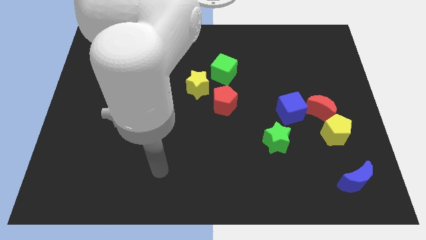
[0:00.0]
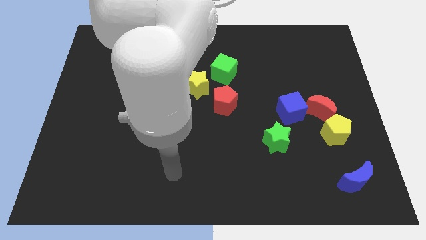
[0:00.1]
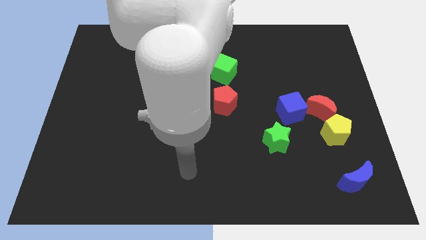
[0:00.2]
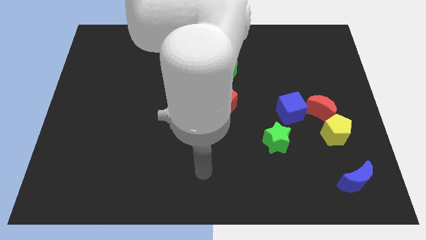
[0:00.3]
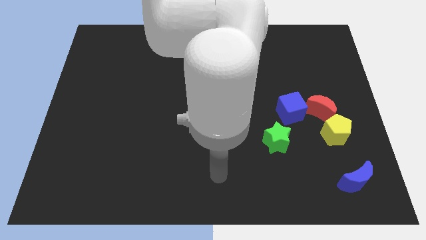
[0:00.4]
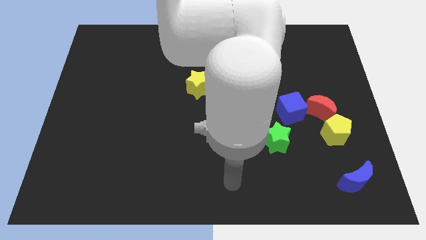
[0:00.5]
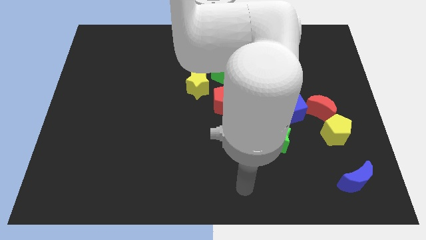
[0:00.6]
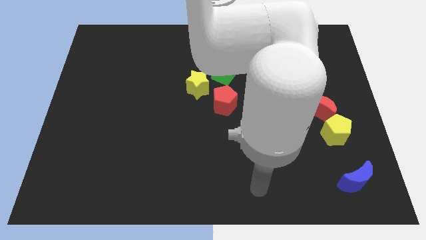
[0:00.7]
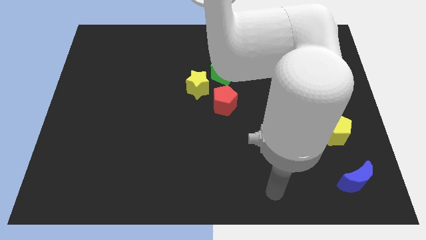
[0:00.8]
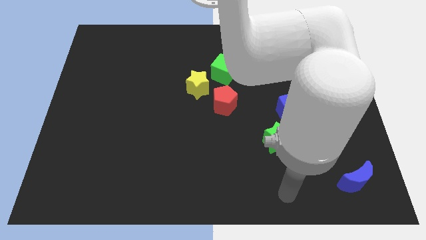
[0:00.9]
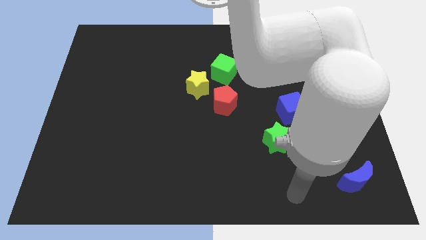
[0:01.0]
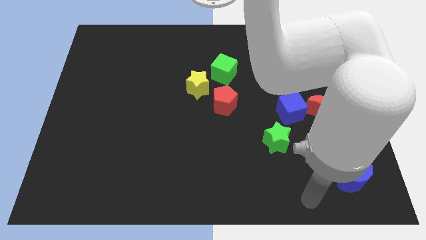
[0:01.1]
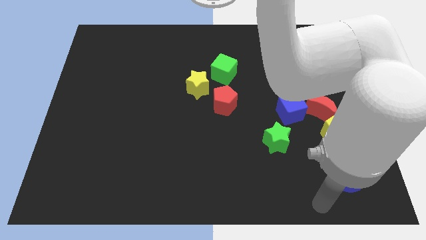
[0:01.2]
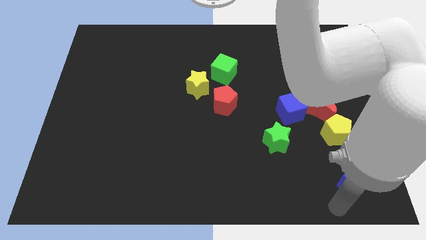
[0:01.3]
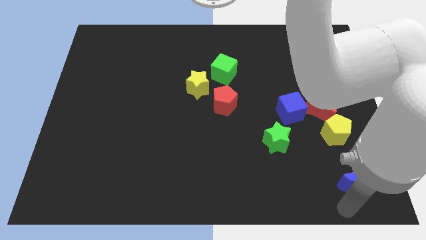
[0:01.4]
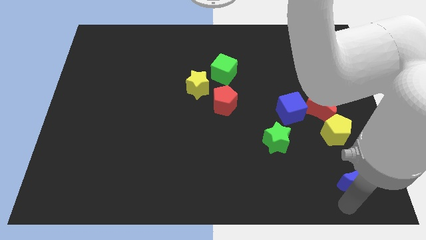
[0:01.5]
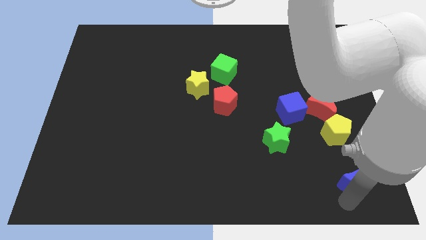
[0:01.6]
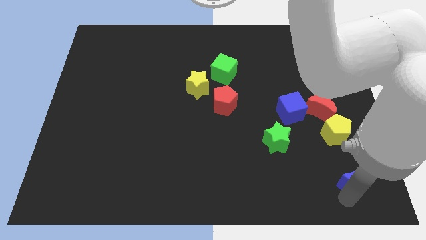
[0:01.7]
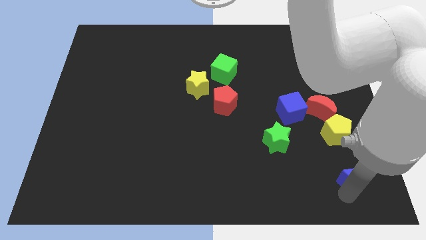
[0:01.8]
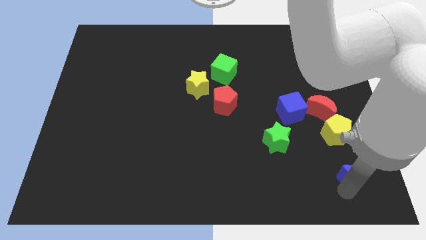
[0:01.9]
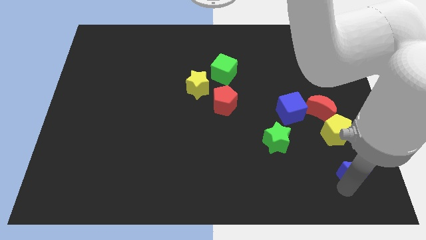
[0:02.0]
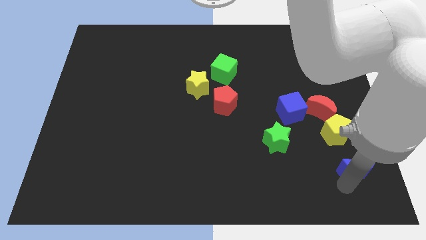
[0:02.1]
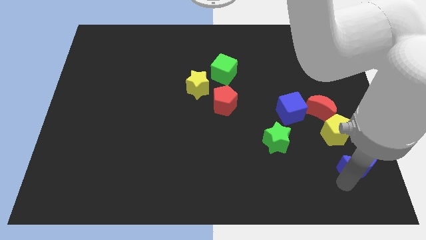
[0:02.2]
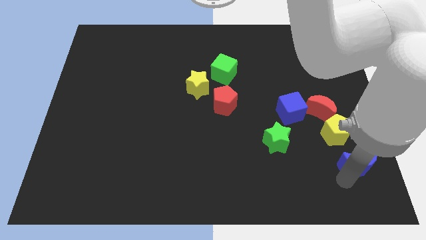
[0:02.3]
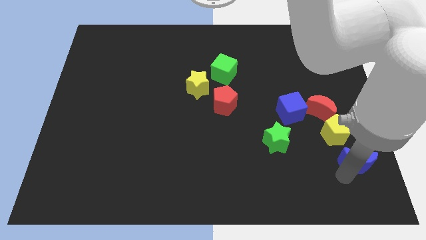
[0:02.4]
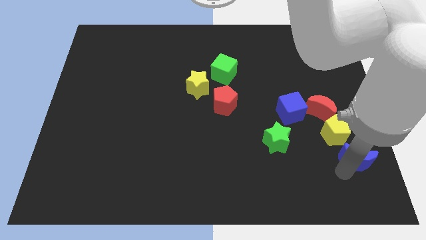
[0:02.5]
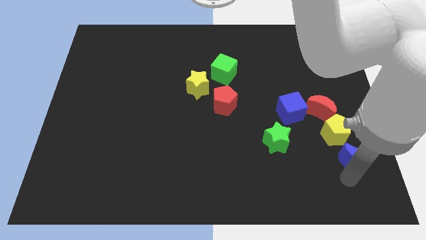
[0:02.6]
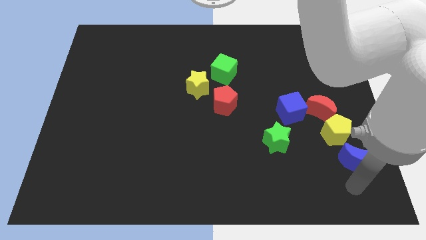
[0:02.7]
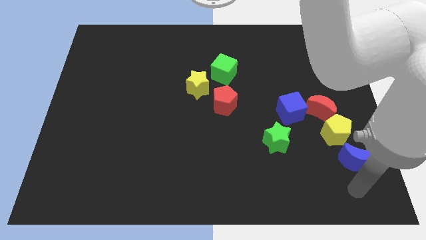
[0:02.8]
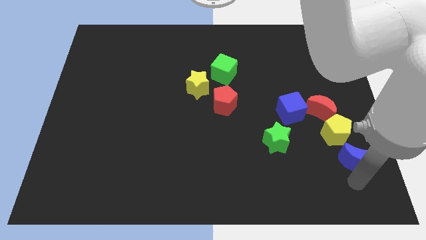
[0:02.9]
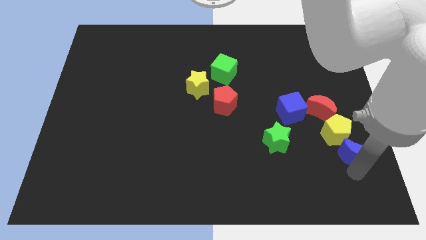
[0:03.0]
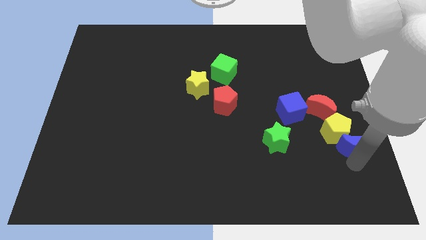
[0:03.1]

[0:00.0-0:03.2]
slightly move the blue moon up

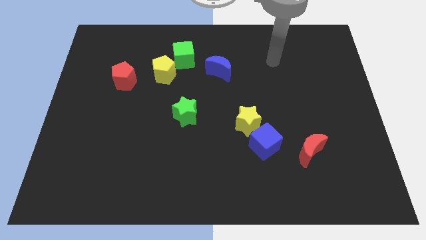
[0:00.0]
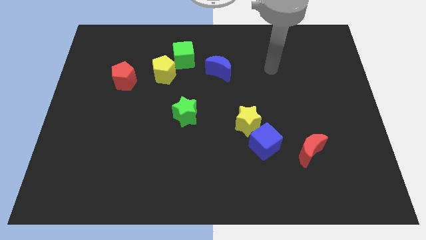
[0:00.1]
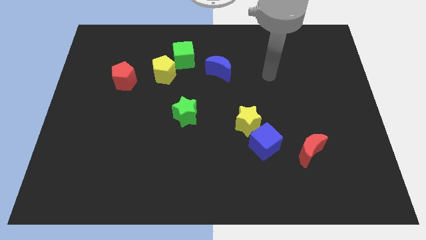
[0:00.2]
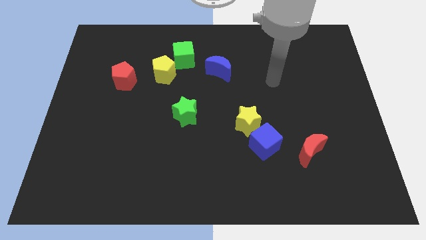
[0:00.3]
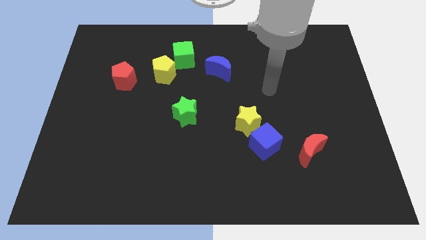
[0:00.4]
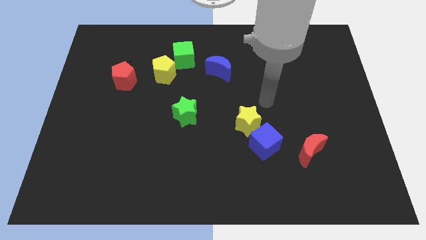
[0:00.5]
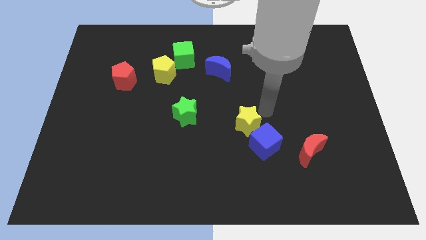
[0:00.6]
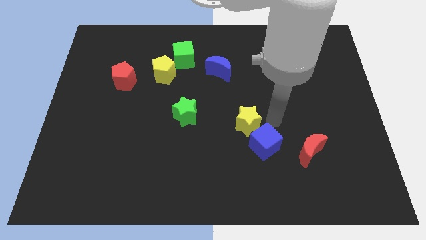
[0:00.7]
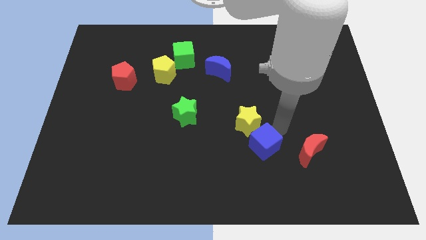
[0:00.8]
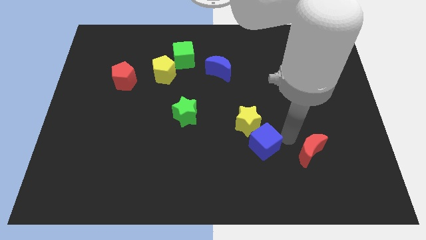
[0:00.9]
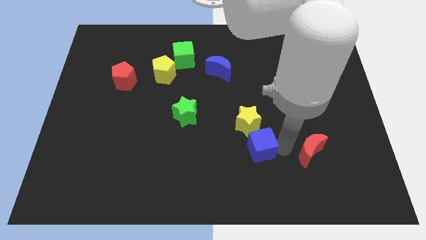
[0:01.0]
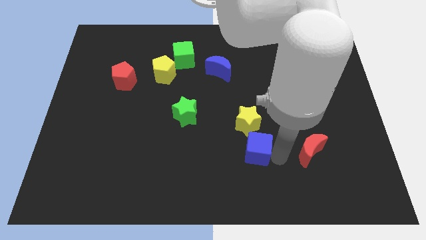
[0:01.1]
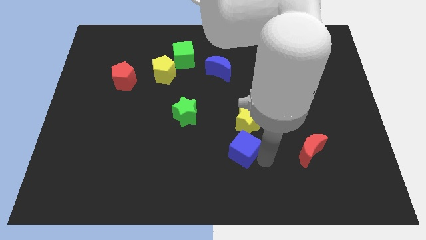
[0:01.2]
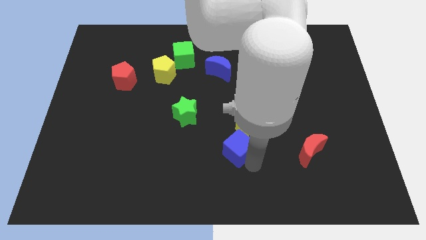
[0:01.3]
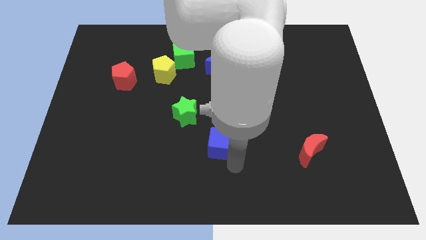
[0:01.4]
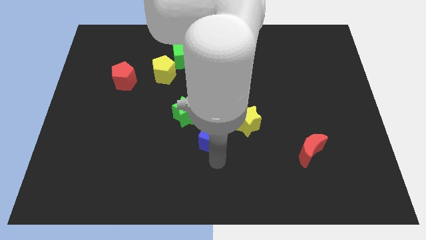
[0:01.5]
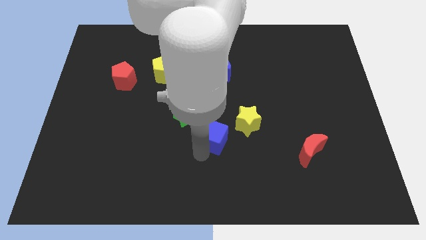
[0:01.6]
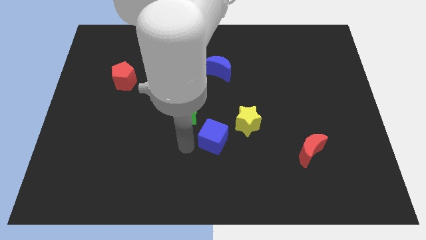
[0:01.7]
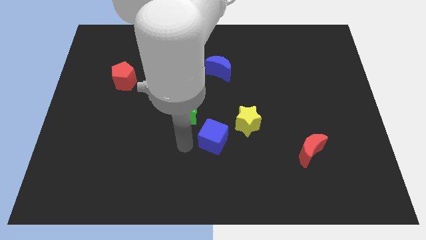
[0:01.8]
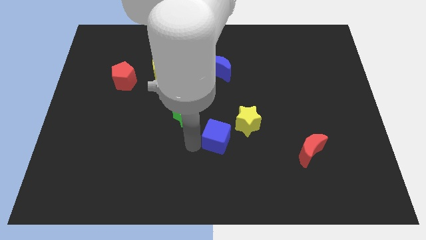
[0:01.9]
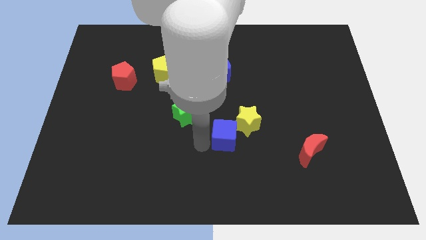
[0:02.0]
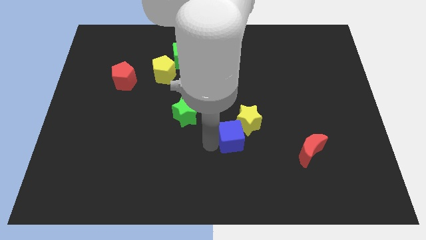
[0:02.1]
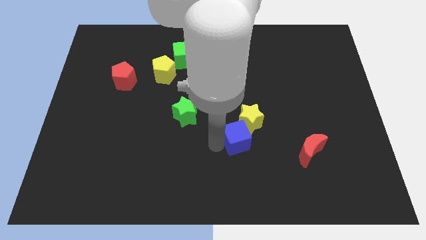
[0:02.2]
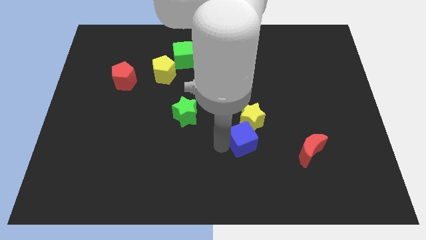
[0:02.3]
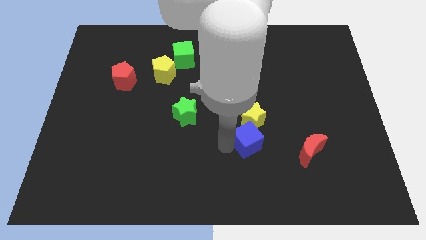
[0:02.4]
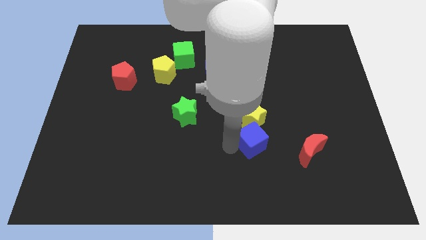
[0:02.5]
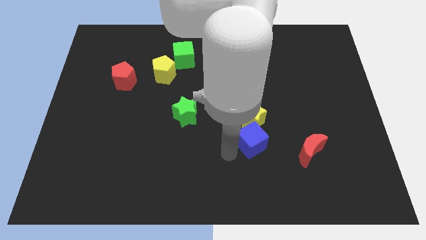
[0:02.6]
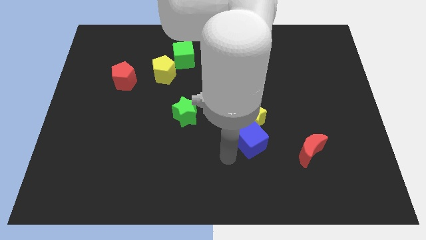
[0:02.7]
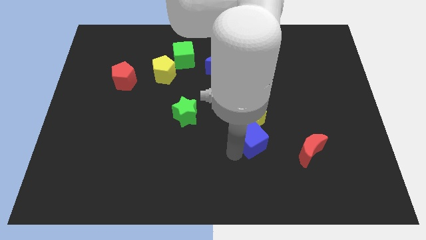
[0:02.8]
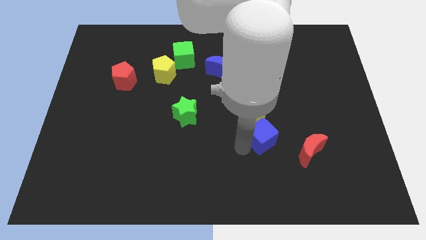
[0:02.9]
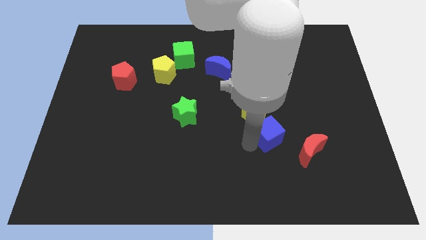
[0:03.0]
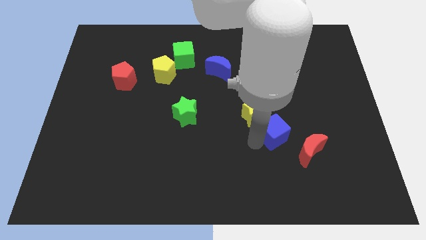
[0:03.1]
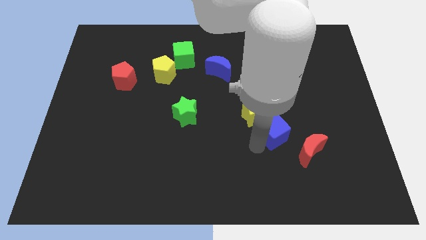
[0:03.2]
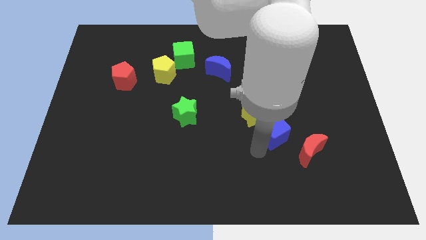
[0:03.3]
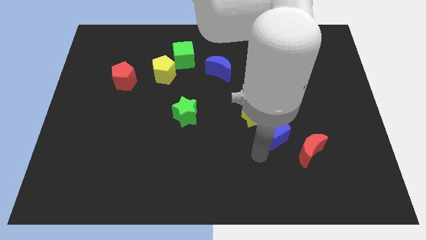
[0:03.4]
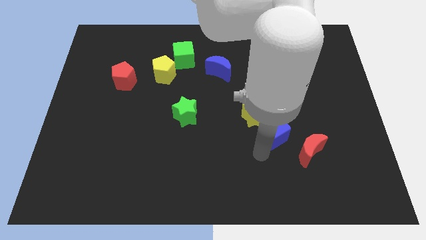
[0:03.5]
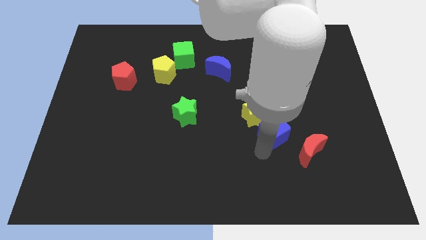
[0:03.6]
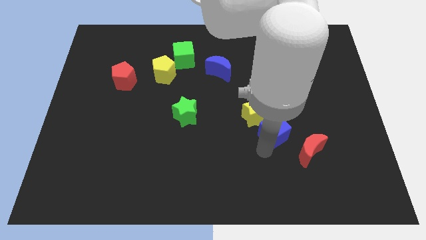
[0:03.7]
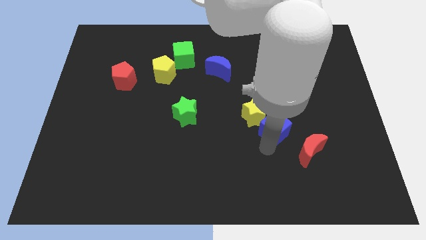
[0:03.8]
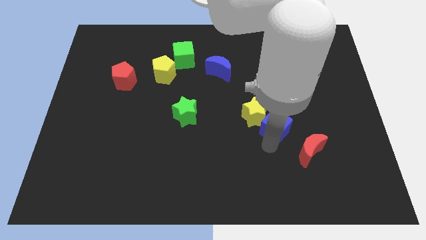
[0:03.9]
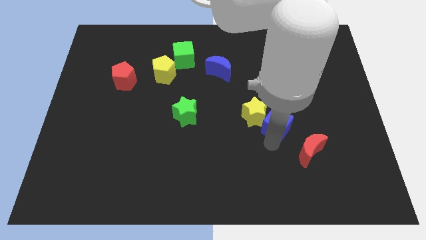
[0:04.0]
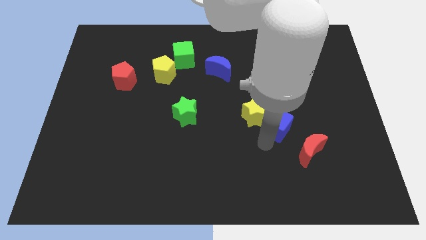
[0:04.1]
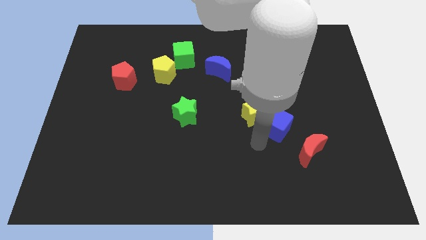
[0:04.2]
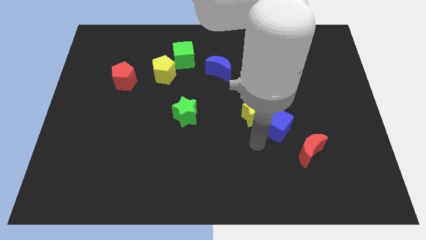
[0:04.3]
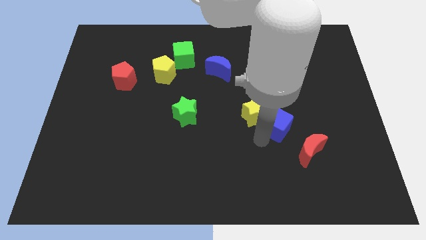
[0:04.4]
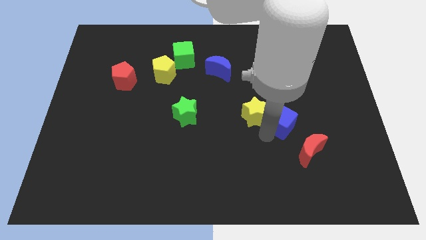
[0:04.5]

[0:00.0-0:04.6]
slightly push the blue cube upwards and then to the right
